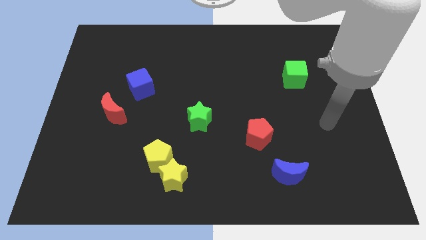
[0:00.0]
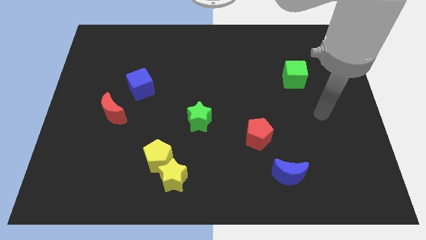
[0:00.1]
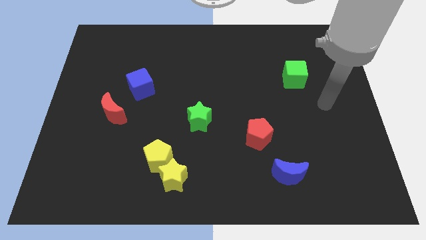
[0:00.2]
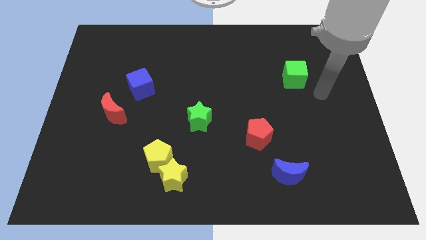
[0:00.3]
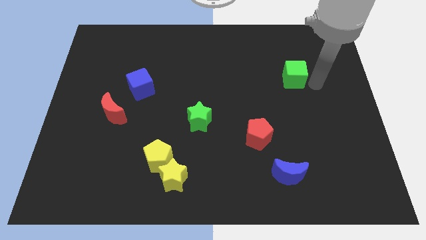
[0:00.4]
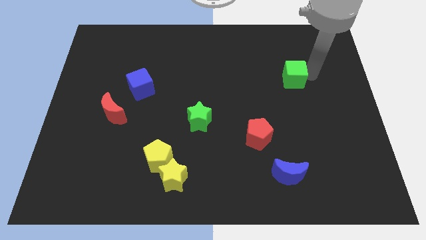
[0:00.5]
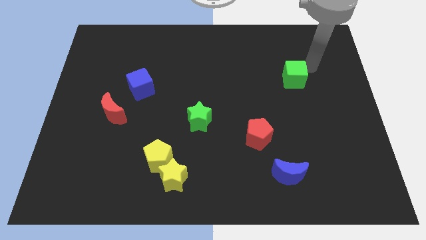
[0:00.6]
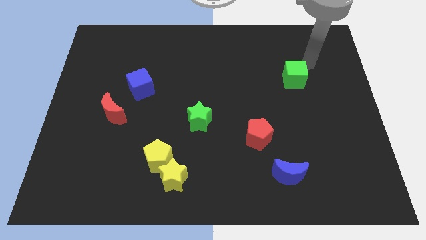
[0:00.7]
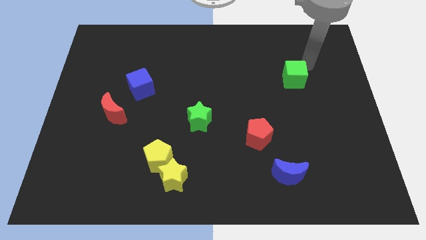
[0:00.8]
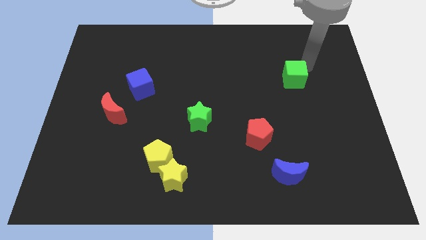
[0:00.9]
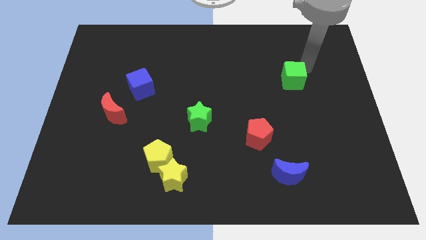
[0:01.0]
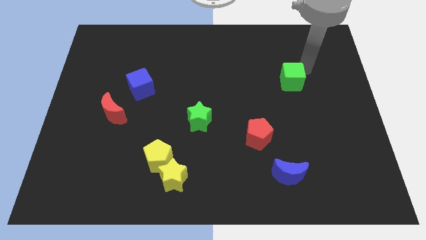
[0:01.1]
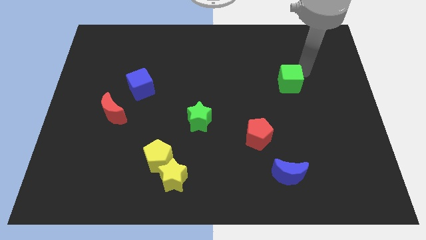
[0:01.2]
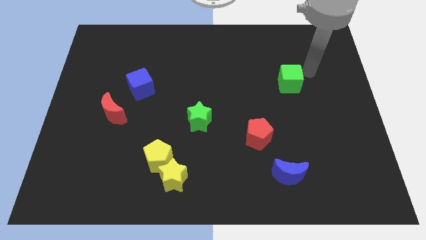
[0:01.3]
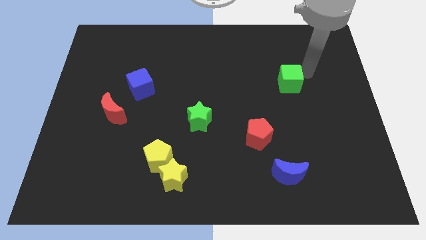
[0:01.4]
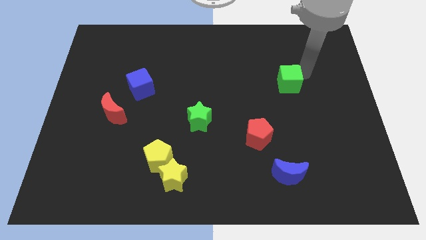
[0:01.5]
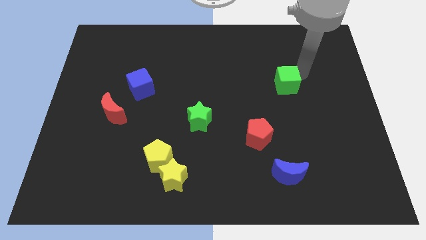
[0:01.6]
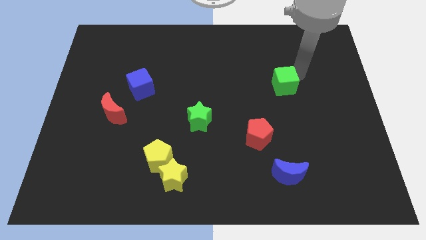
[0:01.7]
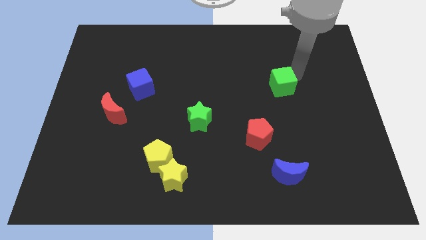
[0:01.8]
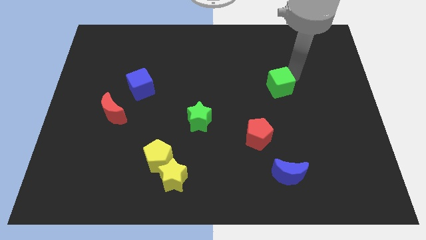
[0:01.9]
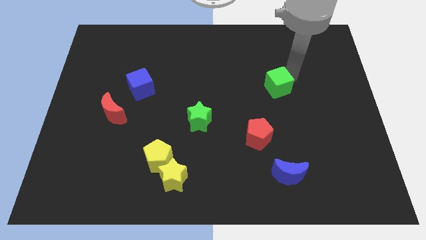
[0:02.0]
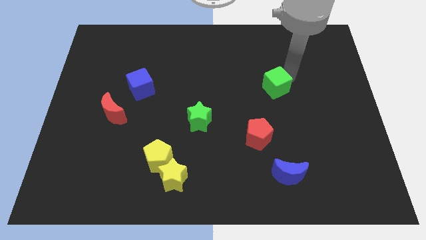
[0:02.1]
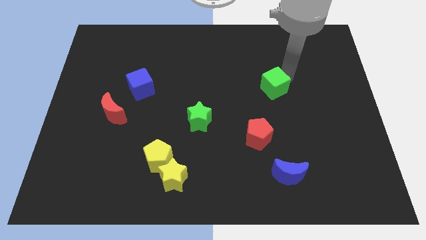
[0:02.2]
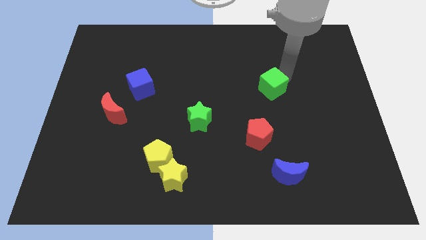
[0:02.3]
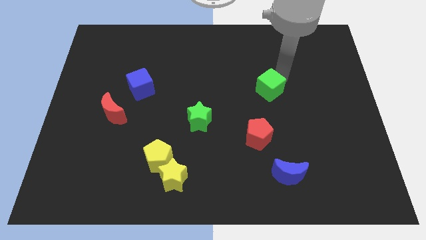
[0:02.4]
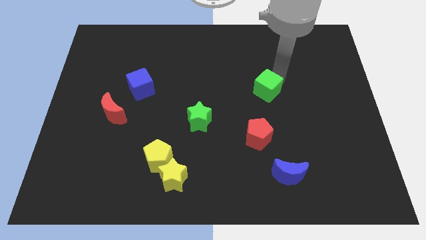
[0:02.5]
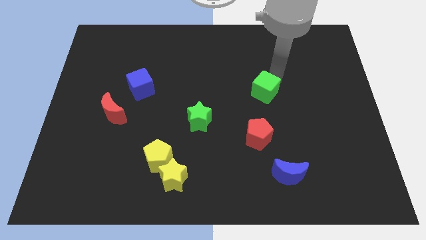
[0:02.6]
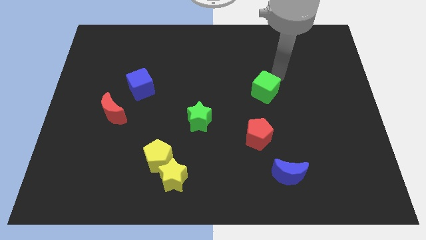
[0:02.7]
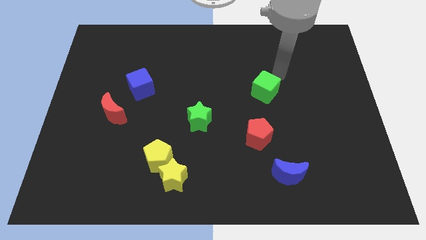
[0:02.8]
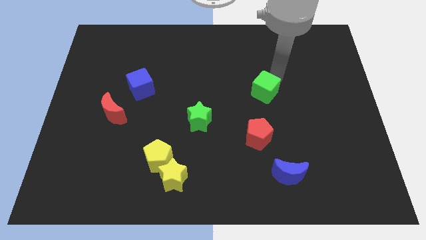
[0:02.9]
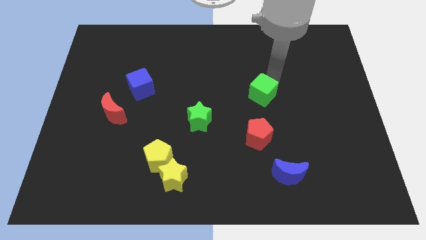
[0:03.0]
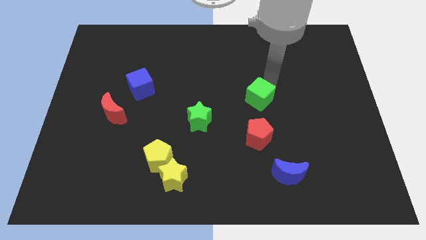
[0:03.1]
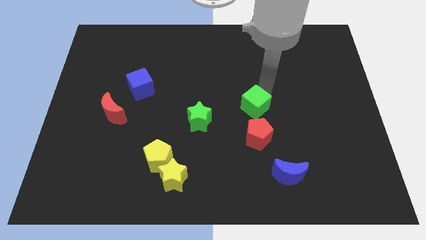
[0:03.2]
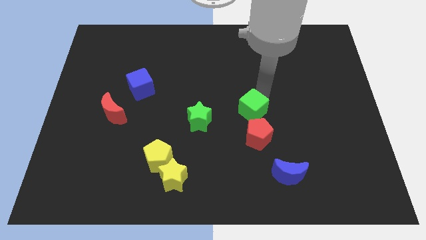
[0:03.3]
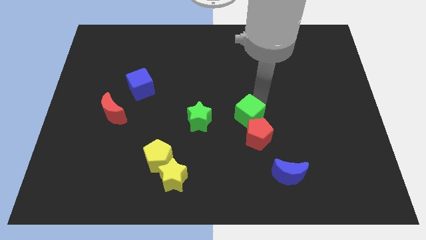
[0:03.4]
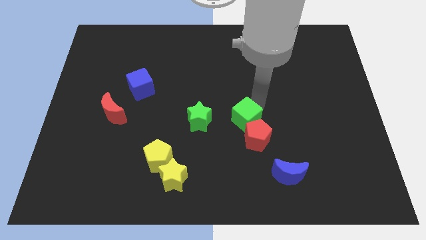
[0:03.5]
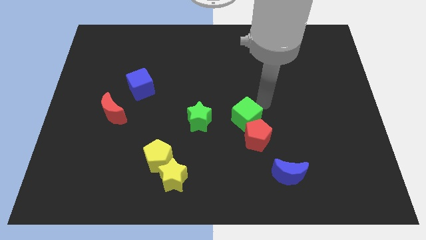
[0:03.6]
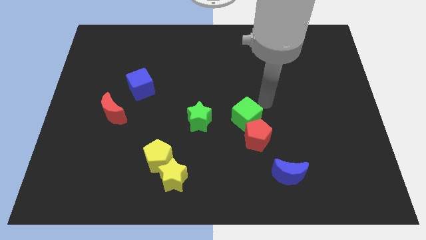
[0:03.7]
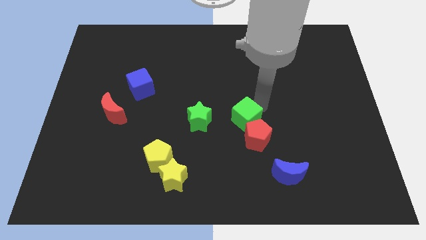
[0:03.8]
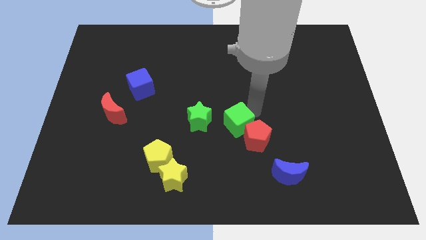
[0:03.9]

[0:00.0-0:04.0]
push the green cube down and left

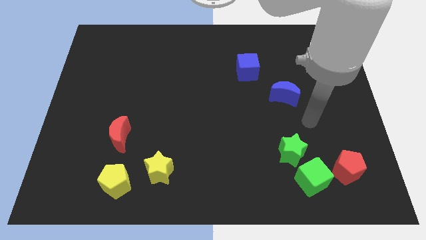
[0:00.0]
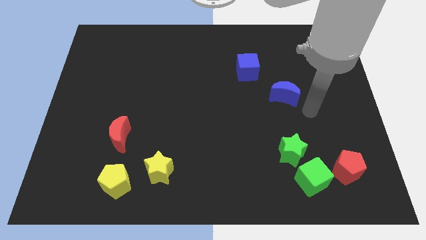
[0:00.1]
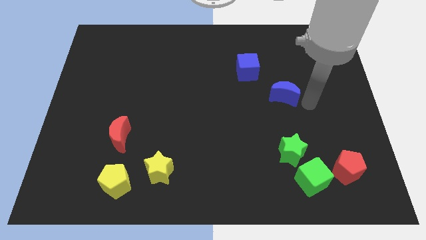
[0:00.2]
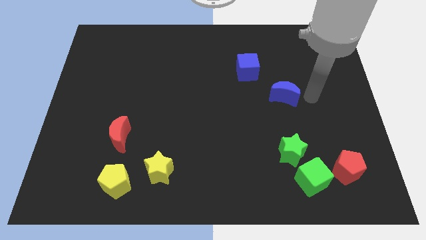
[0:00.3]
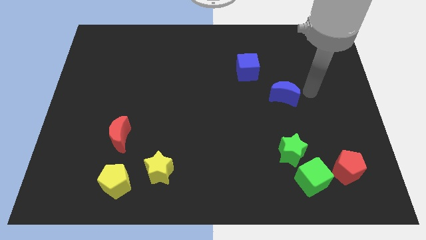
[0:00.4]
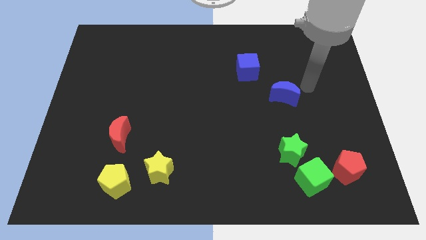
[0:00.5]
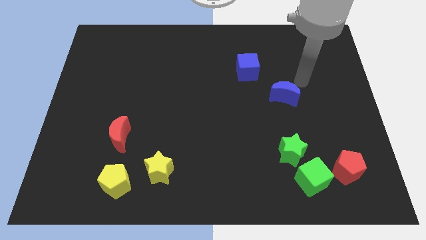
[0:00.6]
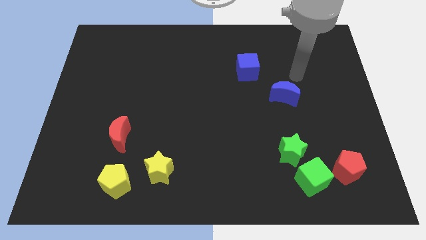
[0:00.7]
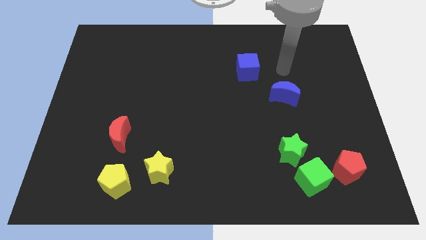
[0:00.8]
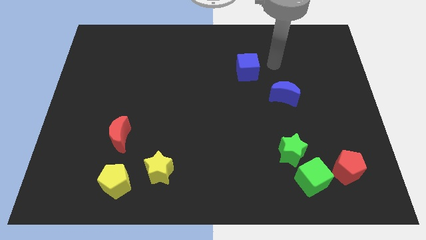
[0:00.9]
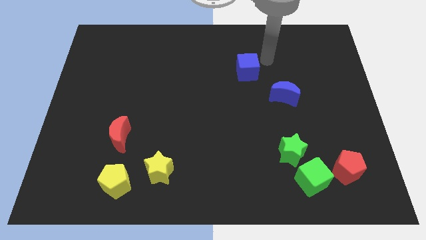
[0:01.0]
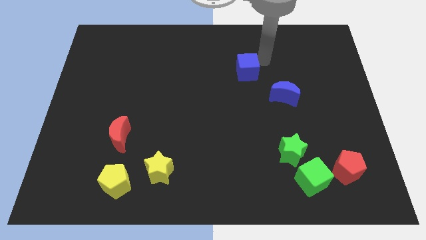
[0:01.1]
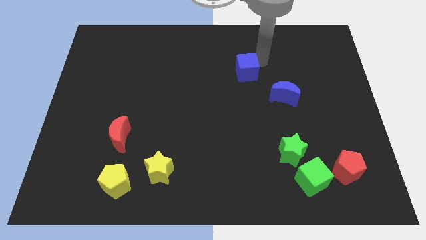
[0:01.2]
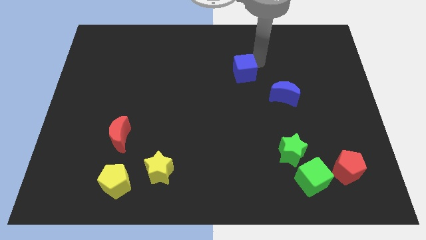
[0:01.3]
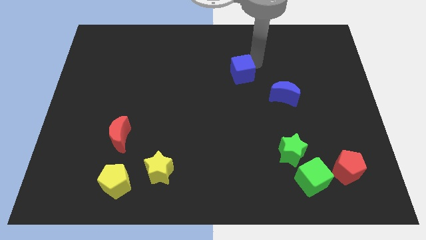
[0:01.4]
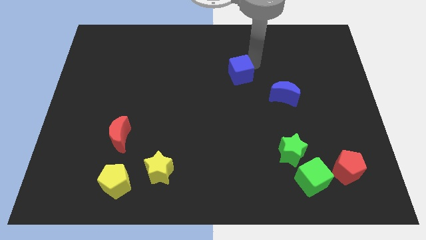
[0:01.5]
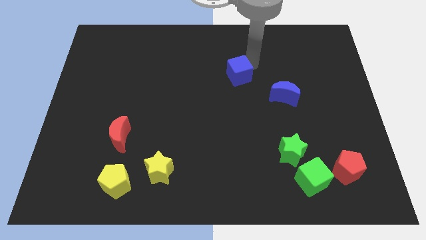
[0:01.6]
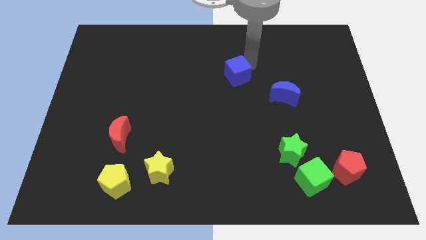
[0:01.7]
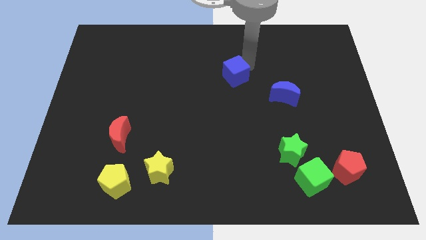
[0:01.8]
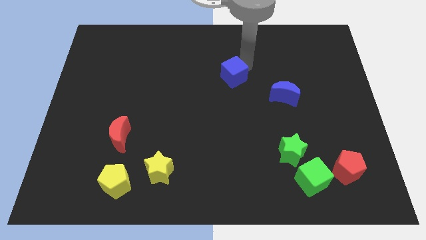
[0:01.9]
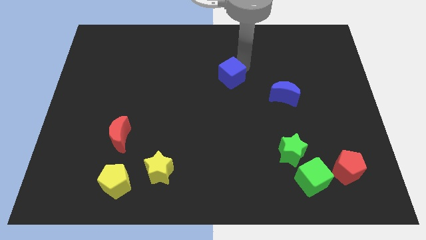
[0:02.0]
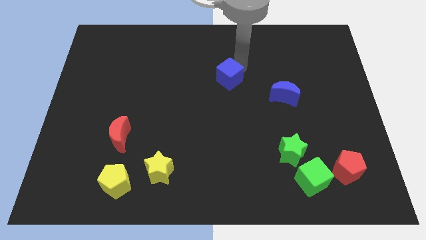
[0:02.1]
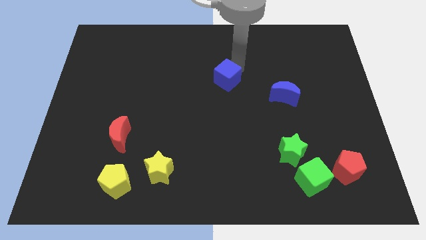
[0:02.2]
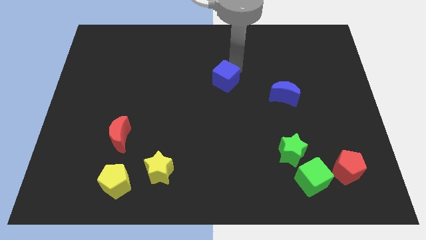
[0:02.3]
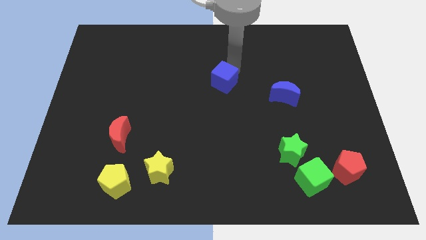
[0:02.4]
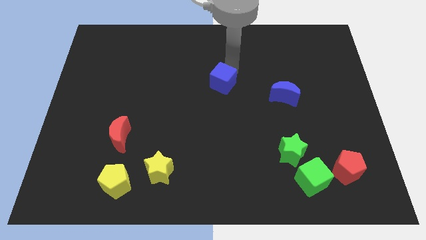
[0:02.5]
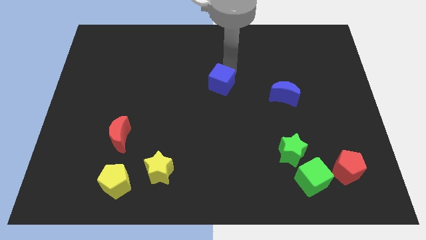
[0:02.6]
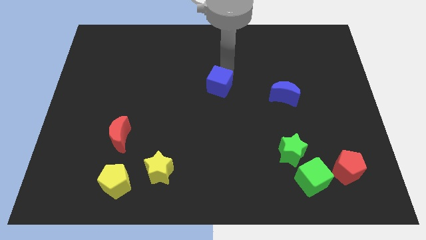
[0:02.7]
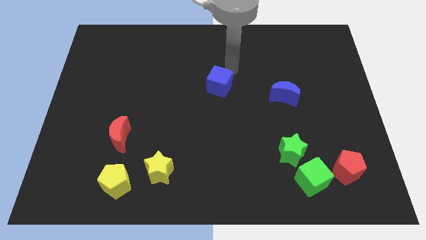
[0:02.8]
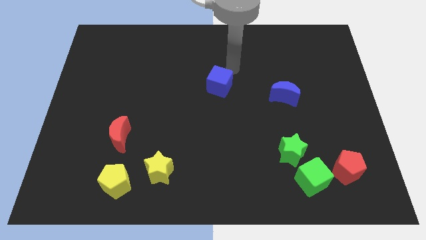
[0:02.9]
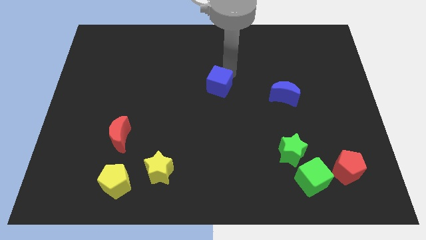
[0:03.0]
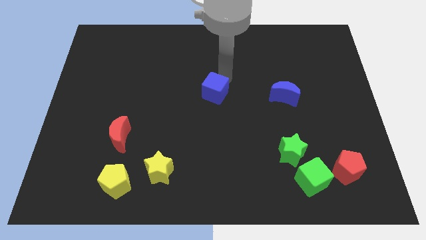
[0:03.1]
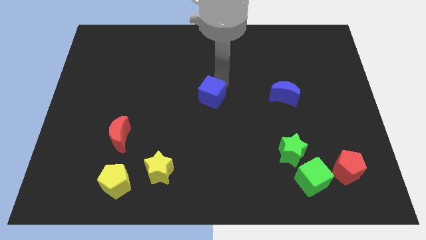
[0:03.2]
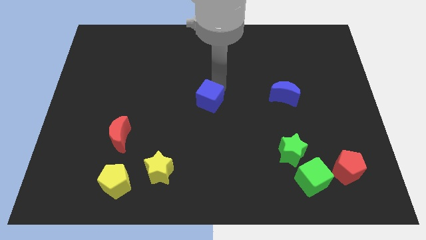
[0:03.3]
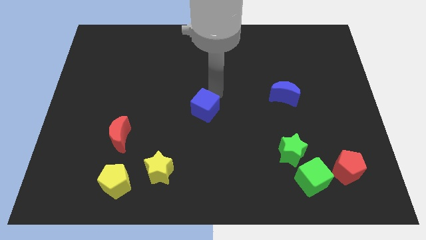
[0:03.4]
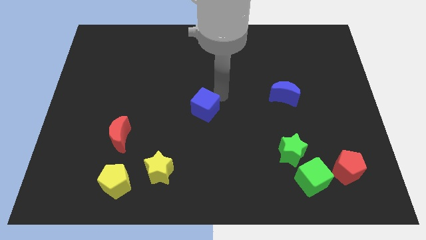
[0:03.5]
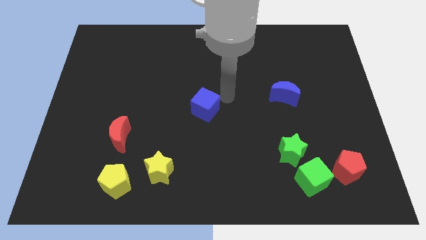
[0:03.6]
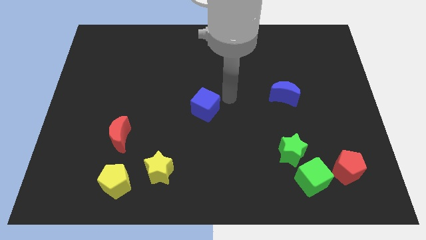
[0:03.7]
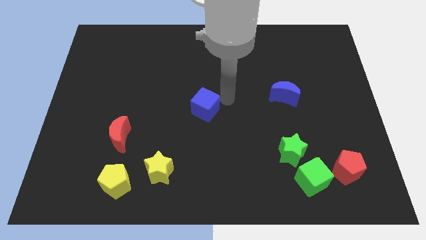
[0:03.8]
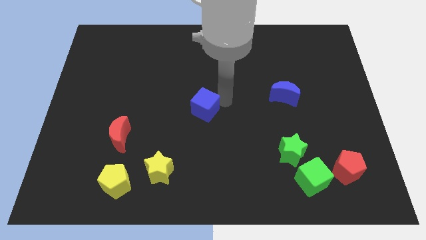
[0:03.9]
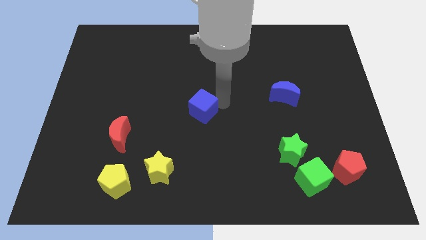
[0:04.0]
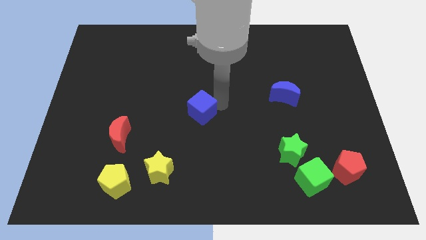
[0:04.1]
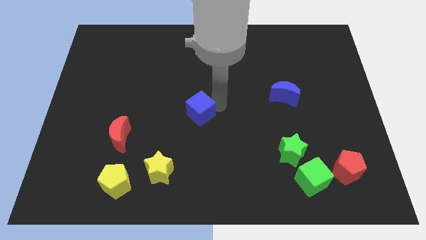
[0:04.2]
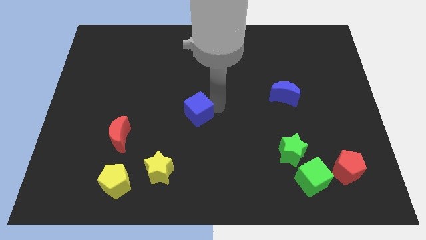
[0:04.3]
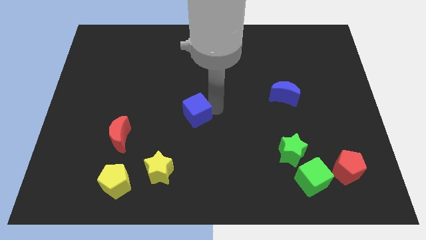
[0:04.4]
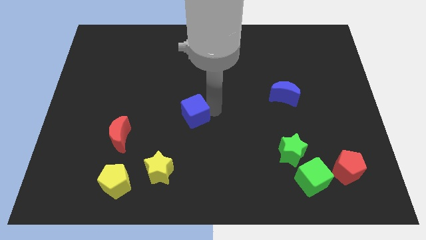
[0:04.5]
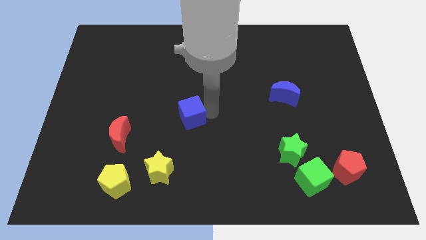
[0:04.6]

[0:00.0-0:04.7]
move the blue cube down and to the left diagonally
